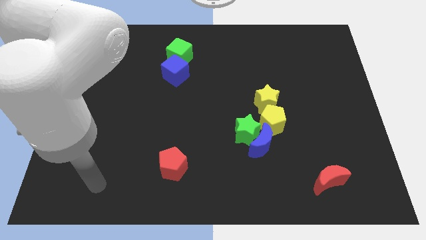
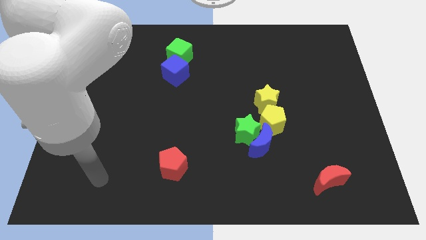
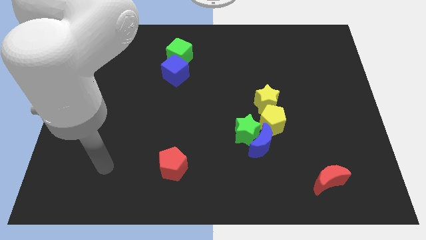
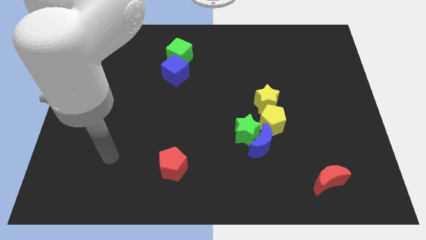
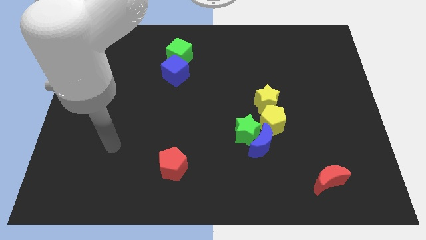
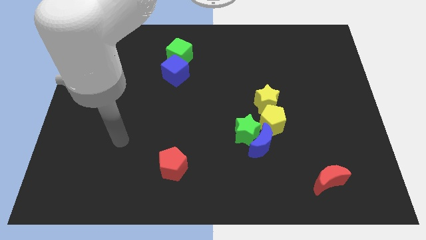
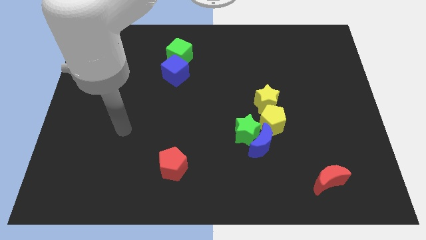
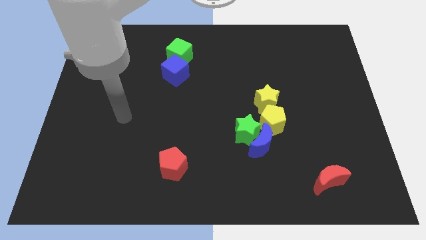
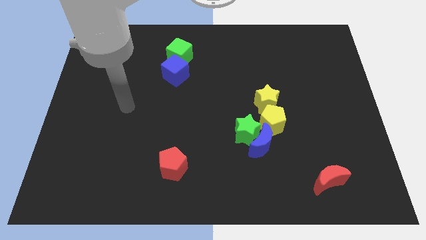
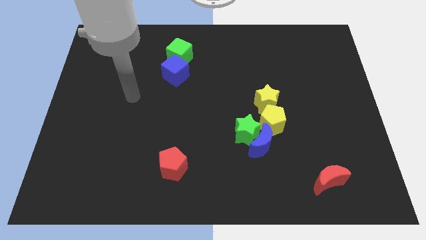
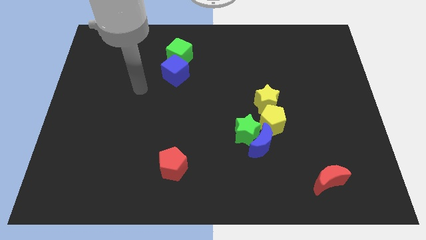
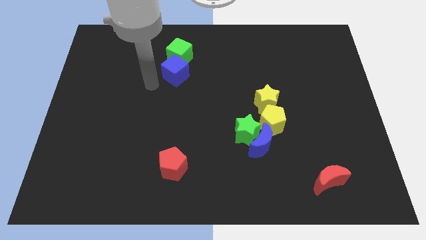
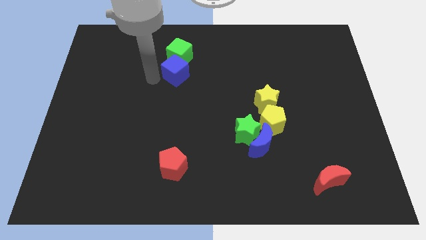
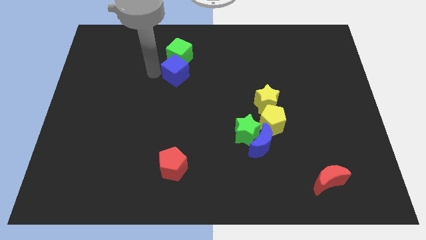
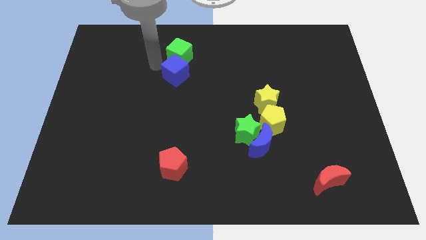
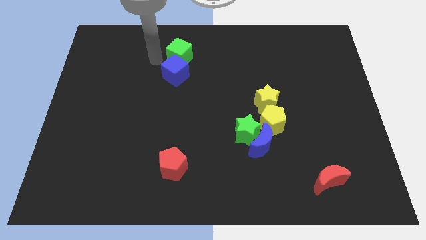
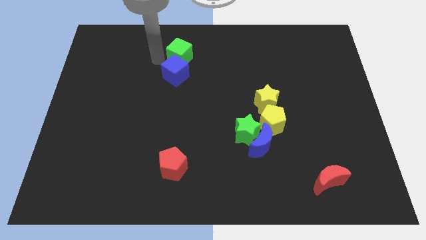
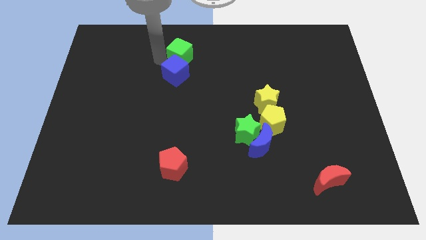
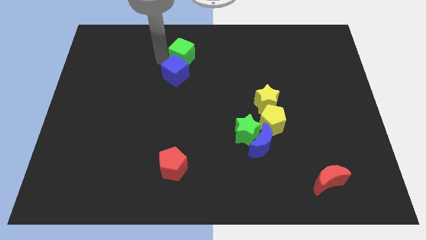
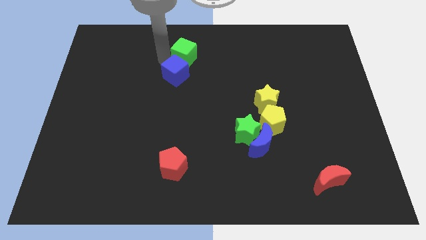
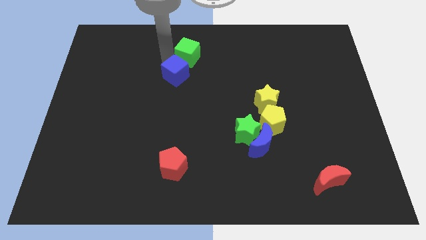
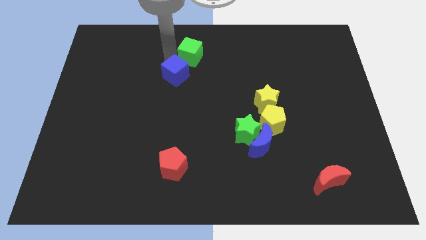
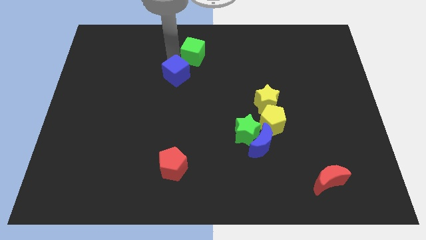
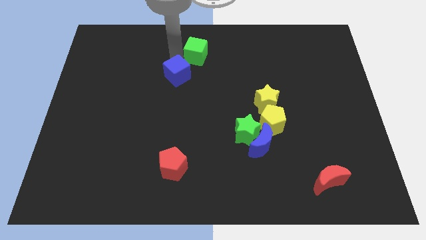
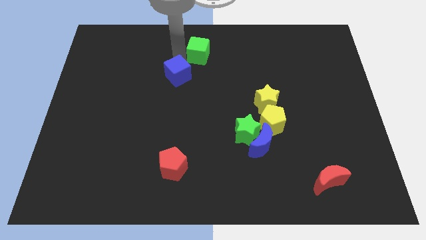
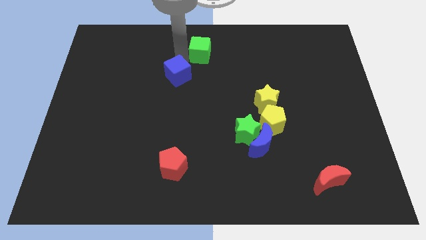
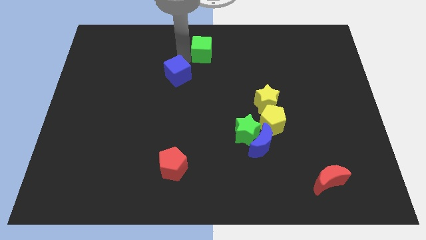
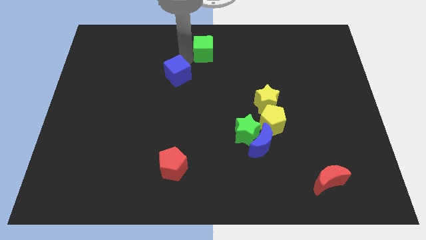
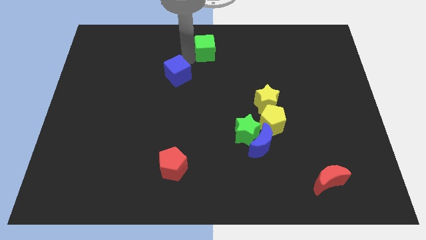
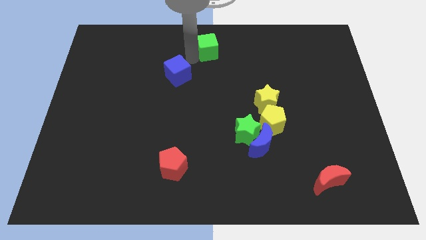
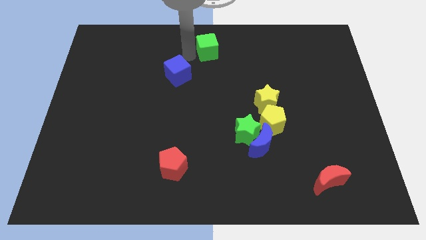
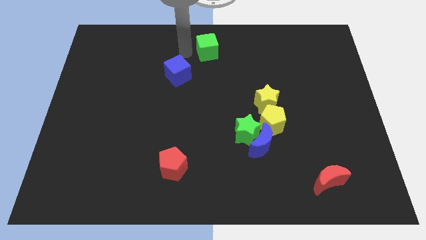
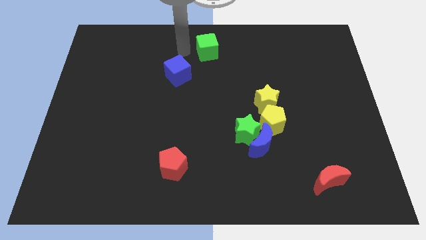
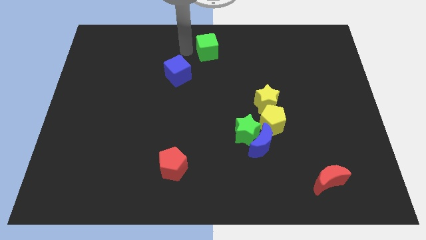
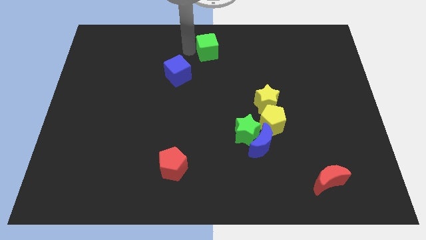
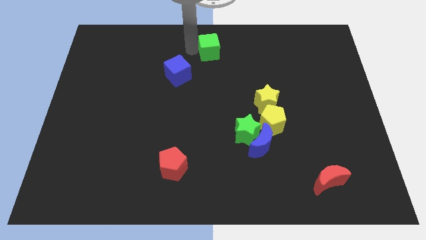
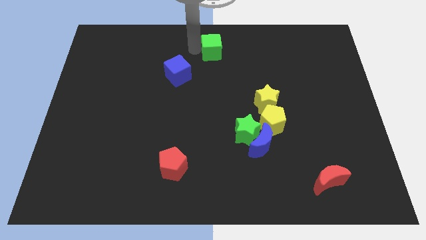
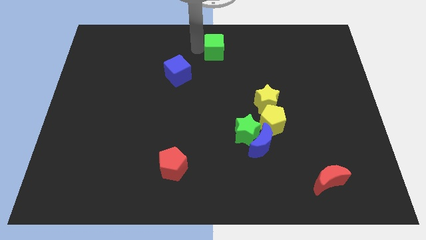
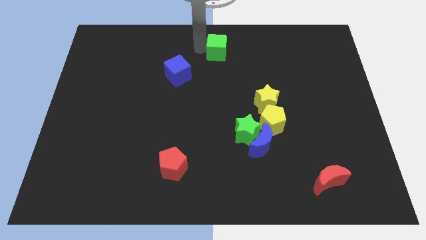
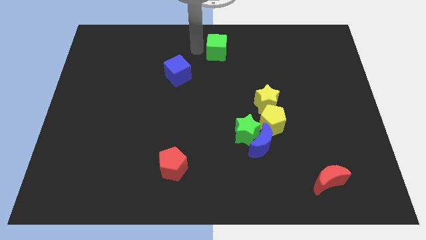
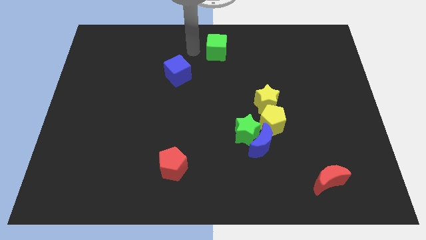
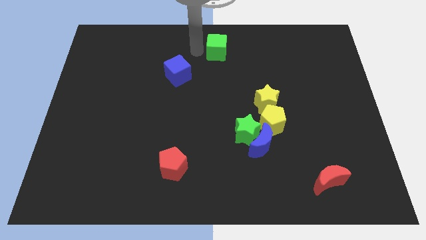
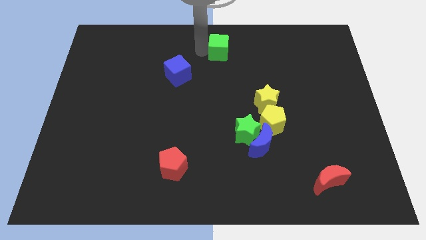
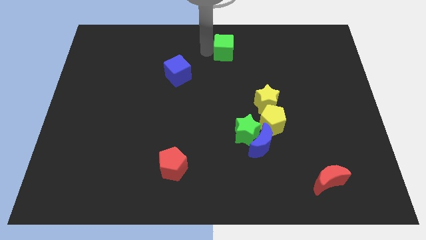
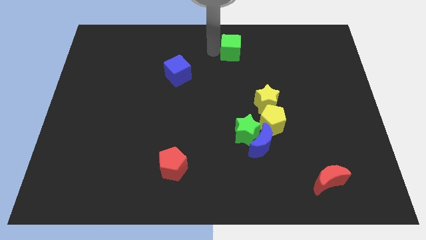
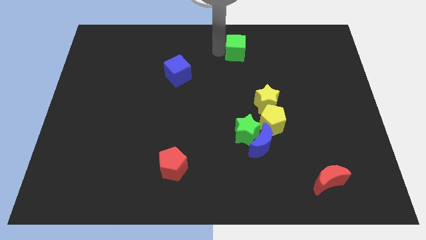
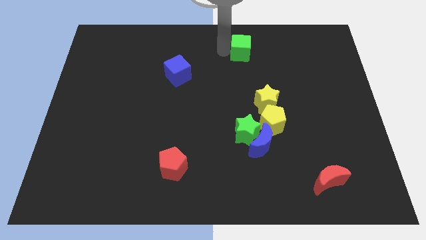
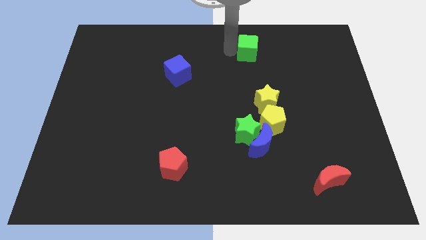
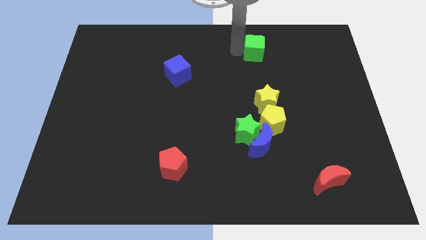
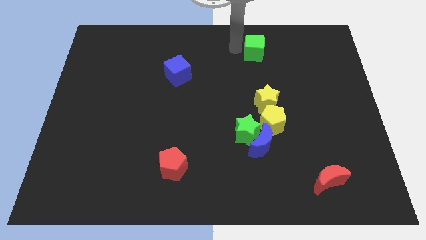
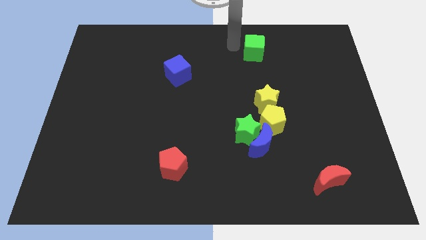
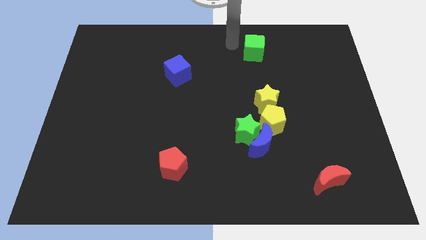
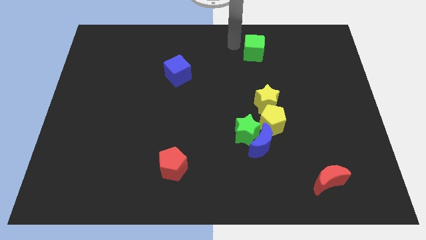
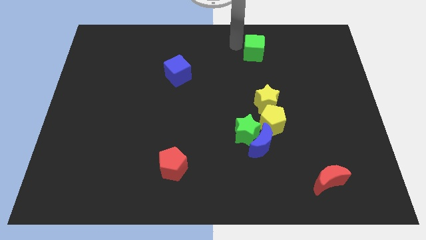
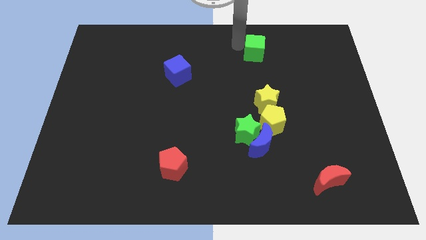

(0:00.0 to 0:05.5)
move the green cube to the right

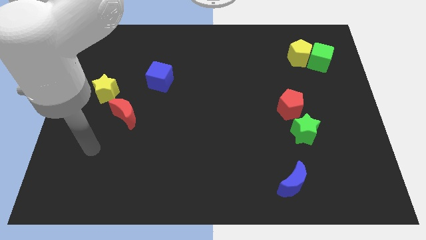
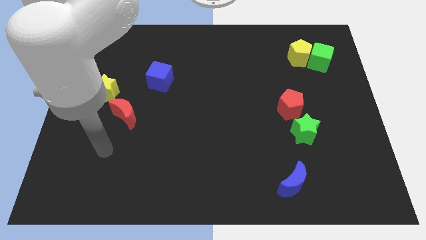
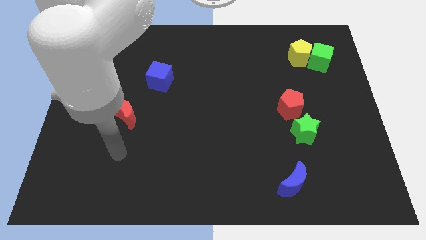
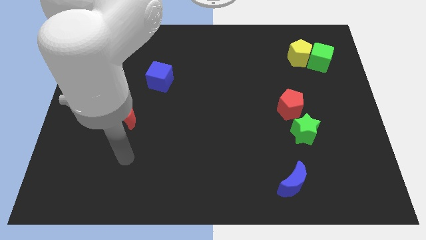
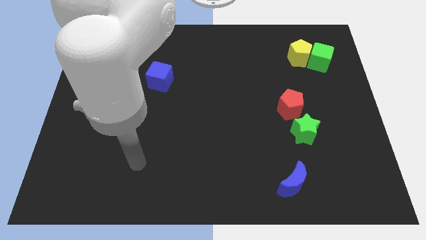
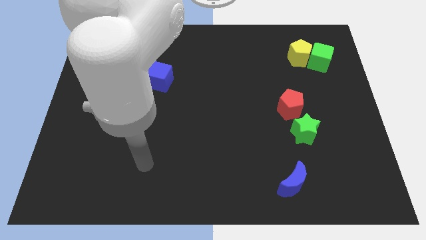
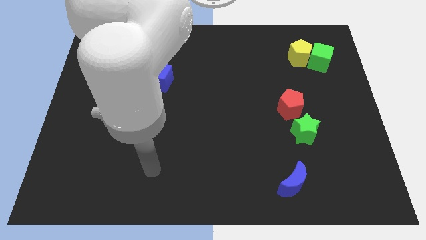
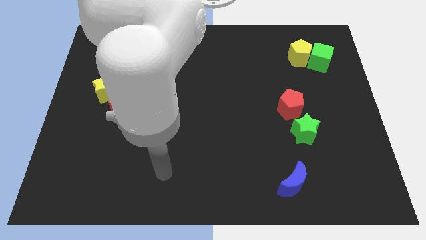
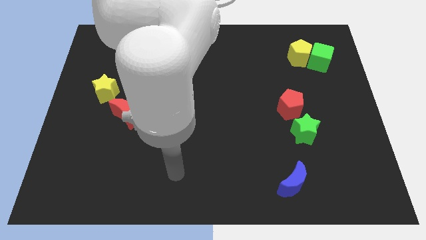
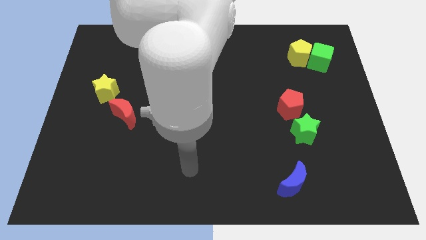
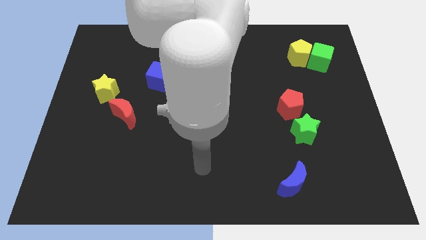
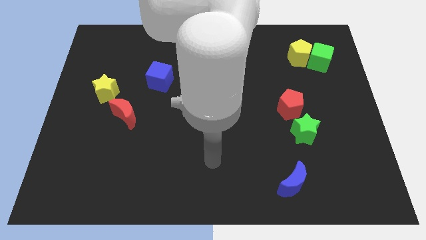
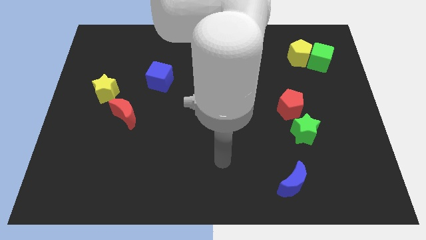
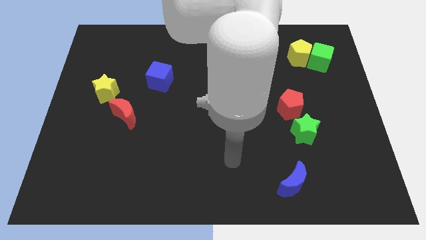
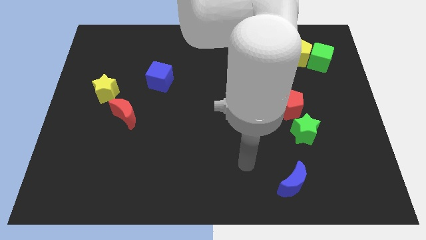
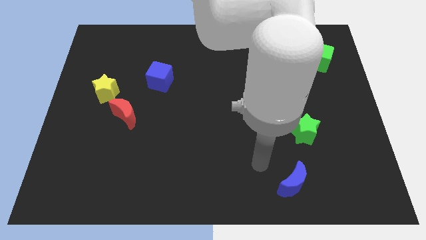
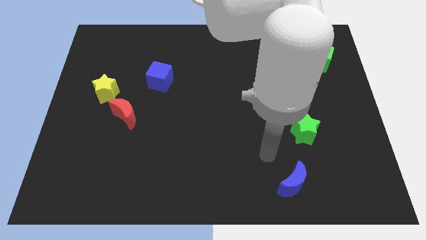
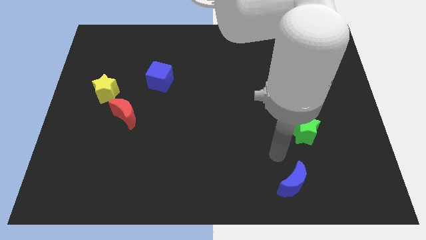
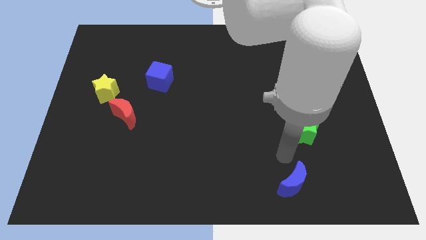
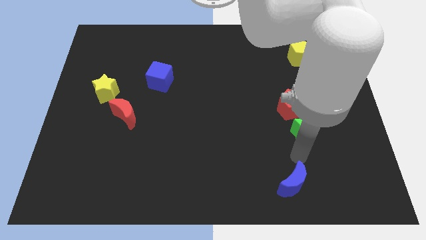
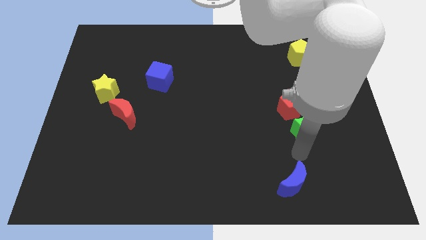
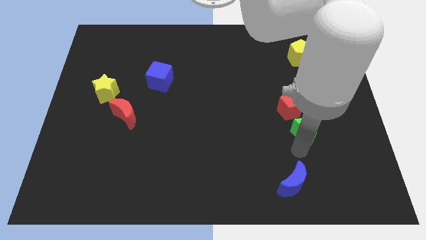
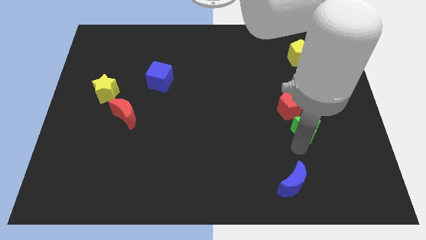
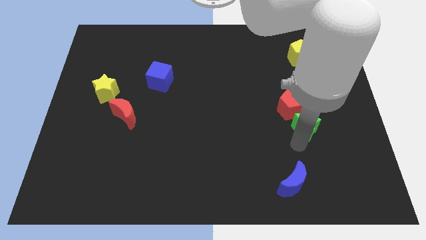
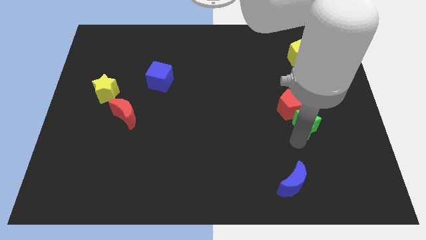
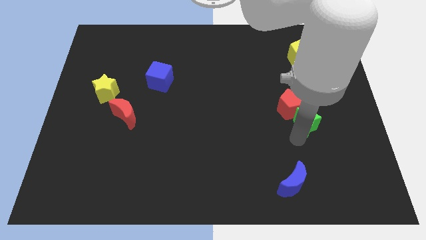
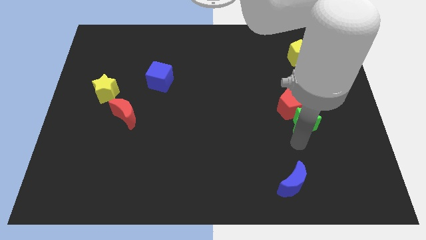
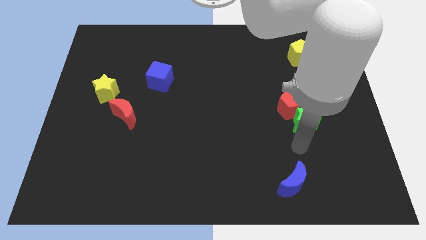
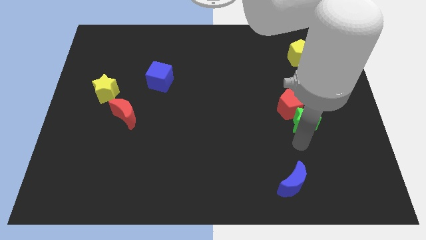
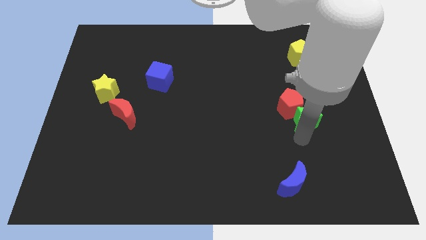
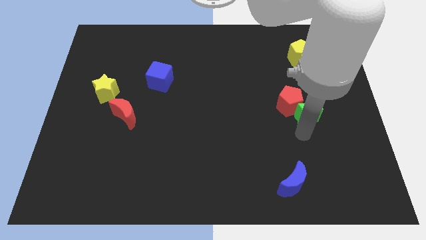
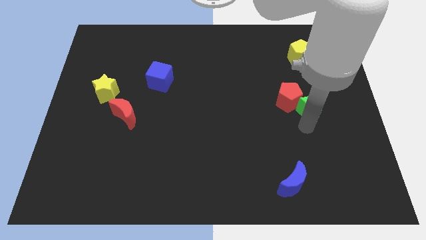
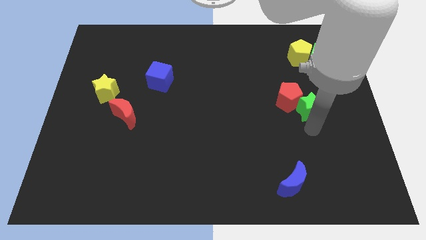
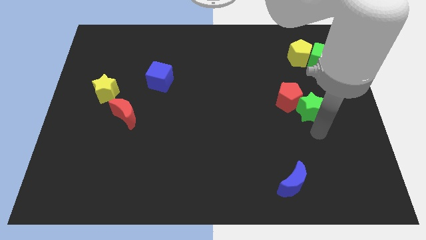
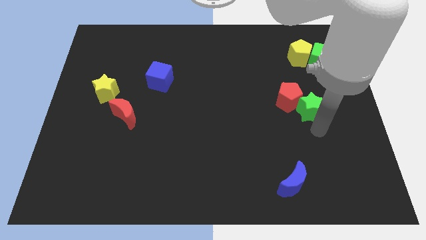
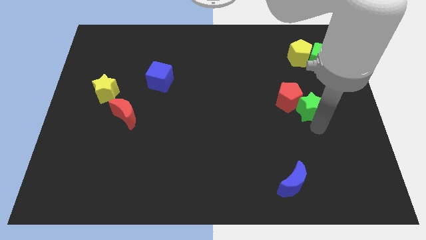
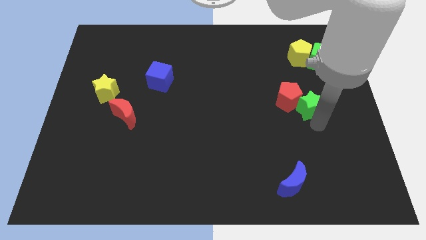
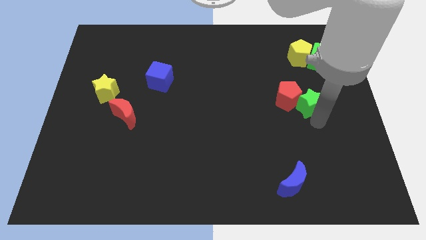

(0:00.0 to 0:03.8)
push the green star up a little
